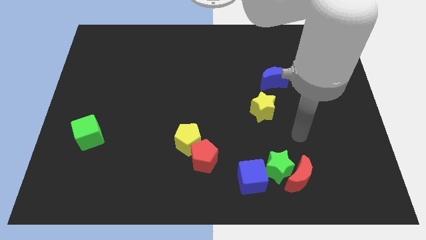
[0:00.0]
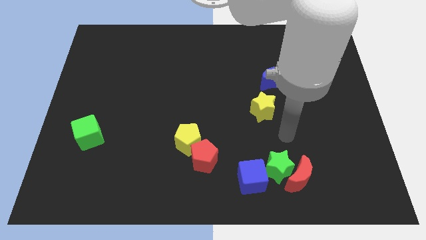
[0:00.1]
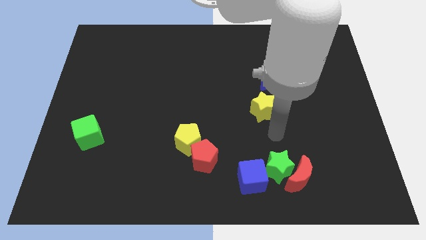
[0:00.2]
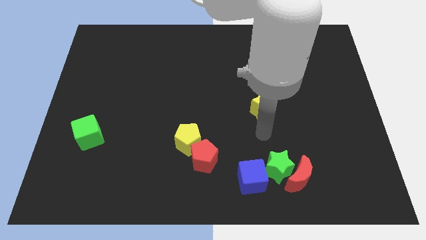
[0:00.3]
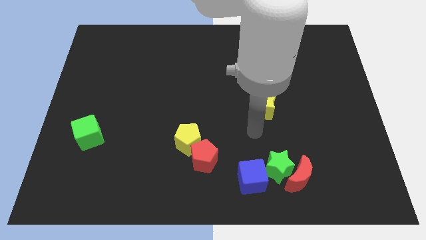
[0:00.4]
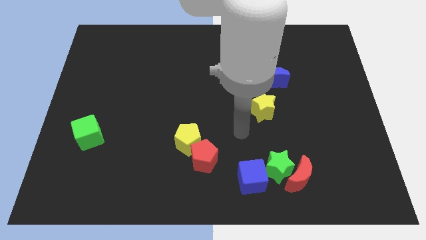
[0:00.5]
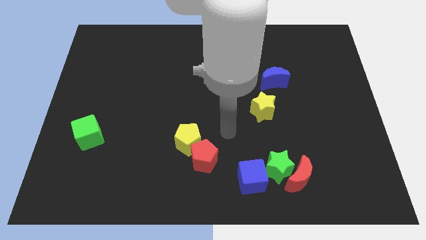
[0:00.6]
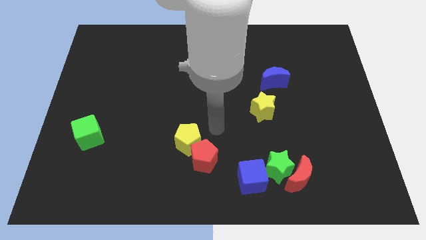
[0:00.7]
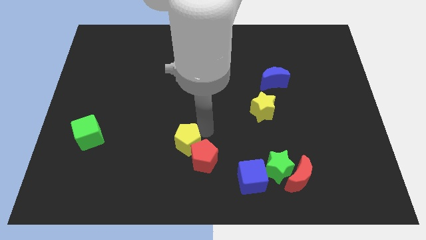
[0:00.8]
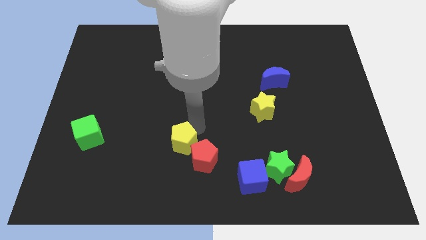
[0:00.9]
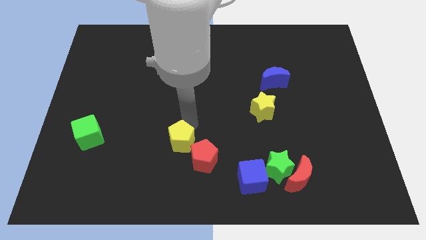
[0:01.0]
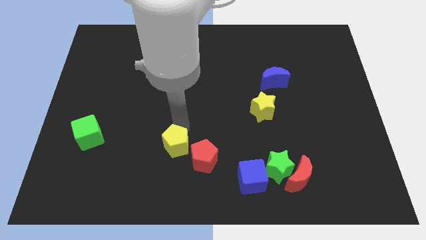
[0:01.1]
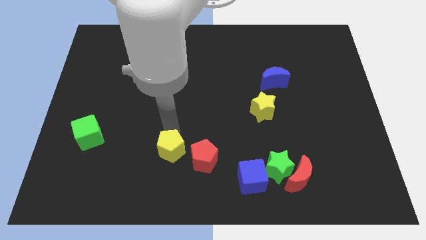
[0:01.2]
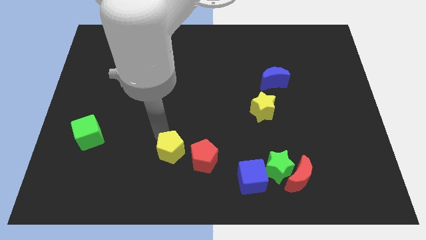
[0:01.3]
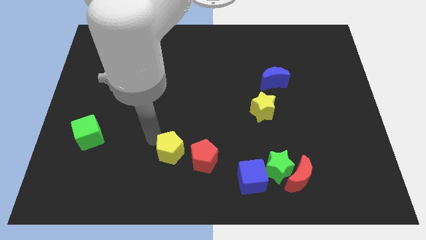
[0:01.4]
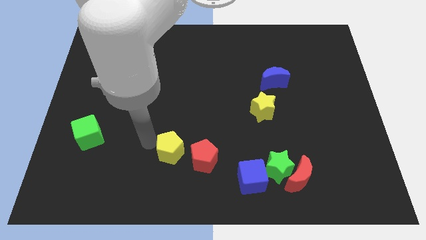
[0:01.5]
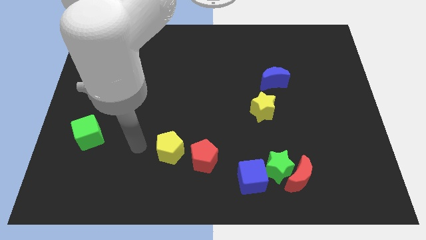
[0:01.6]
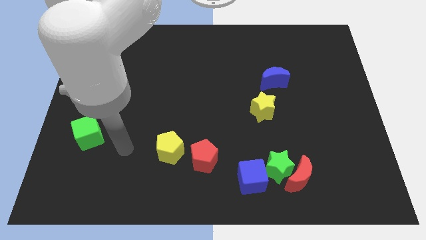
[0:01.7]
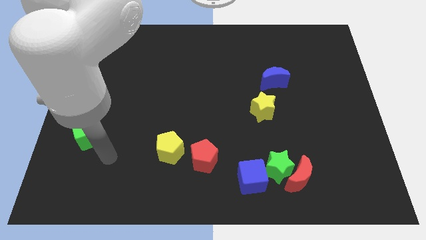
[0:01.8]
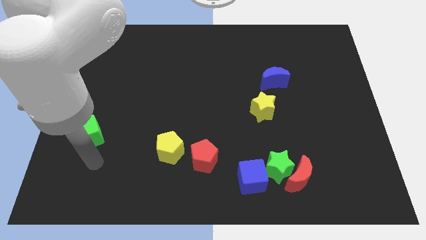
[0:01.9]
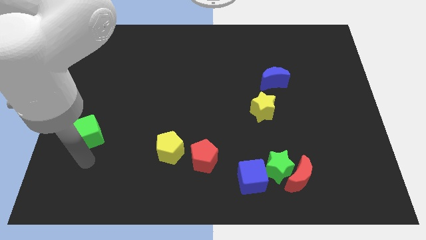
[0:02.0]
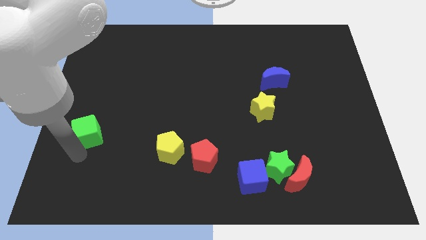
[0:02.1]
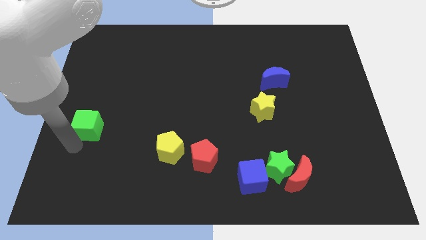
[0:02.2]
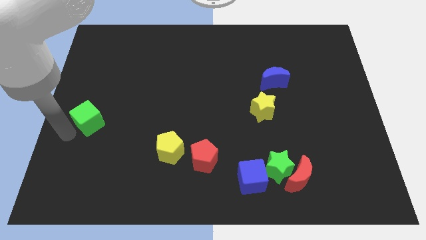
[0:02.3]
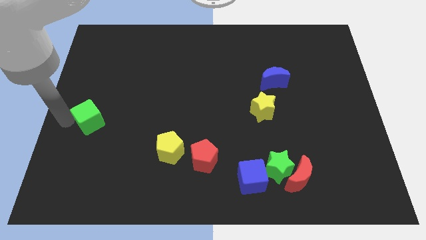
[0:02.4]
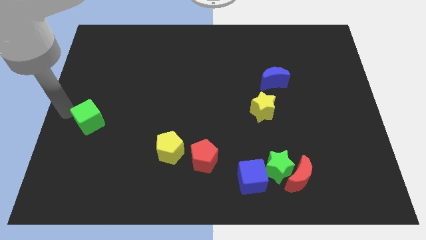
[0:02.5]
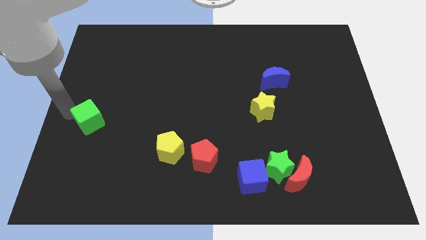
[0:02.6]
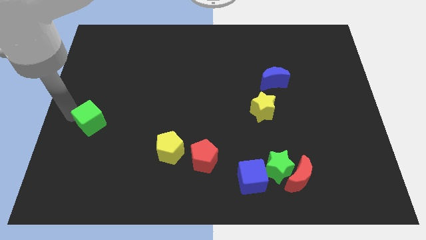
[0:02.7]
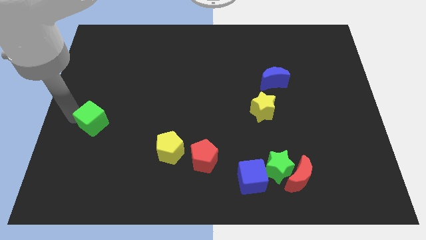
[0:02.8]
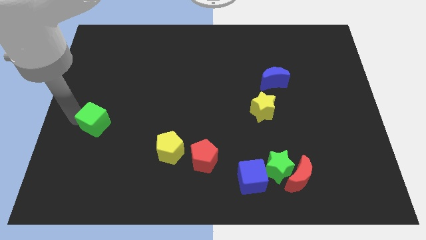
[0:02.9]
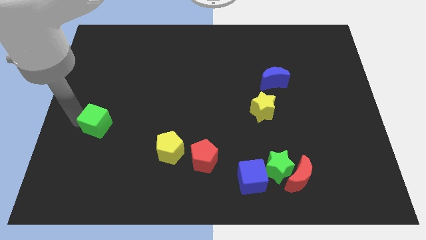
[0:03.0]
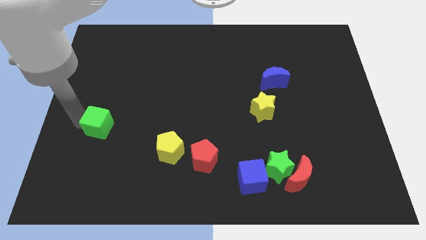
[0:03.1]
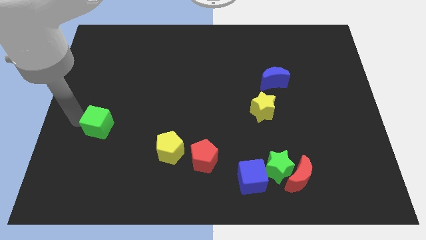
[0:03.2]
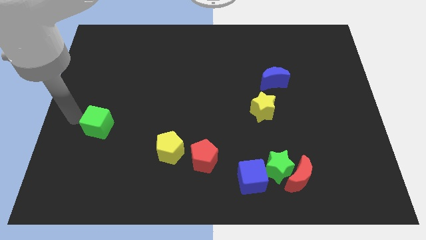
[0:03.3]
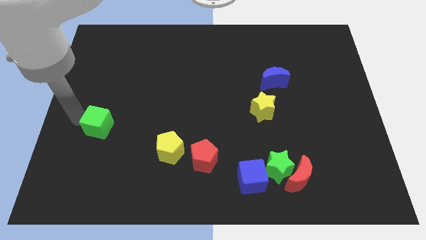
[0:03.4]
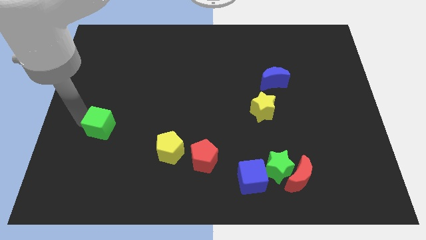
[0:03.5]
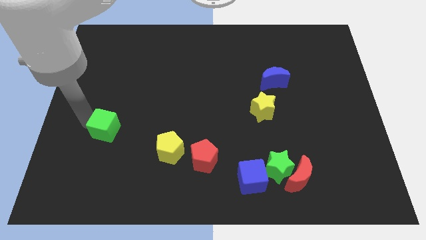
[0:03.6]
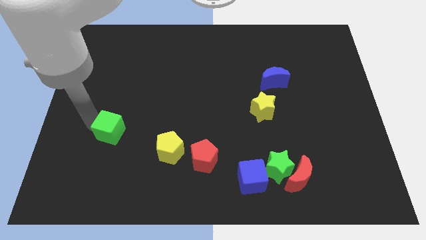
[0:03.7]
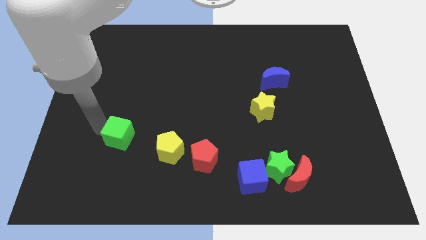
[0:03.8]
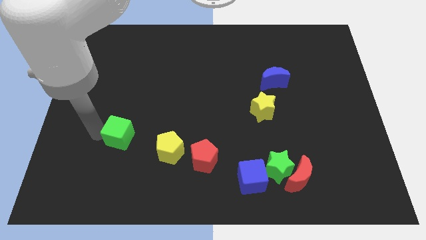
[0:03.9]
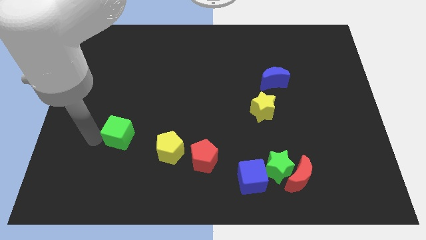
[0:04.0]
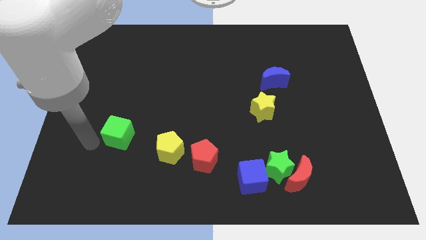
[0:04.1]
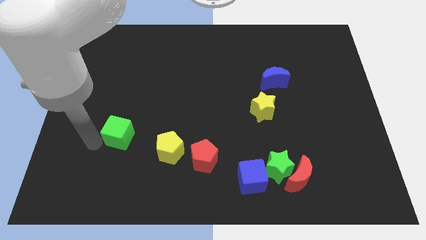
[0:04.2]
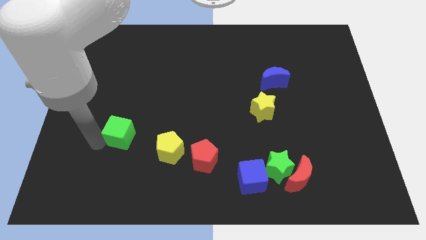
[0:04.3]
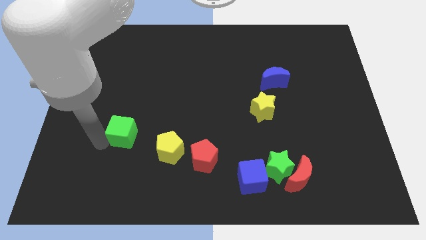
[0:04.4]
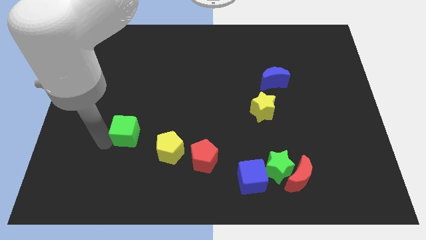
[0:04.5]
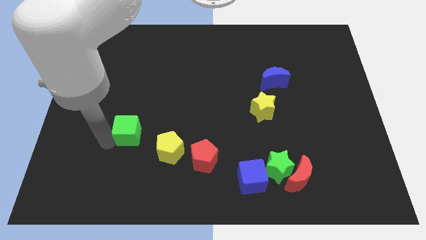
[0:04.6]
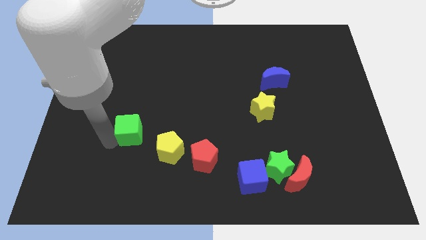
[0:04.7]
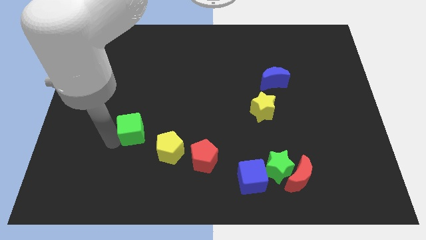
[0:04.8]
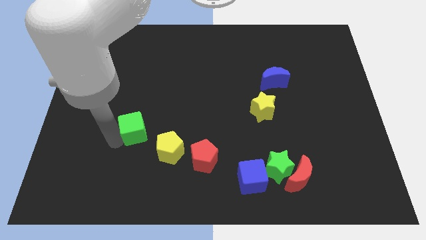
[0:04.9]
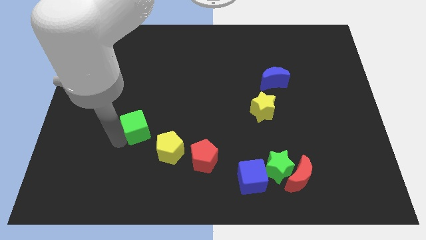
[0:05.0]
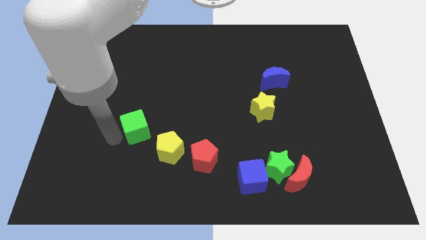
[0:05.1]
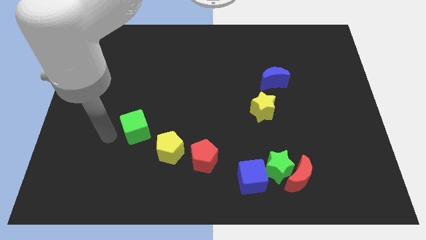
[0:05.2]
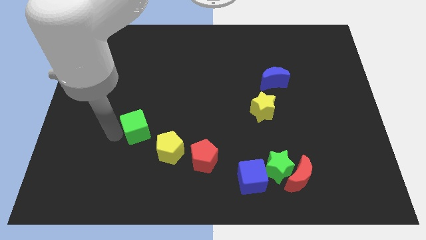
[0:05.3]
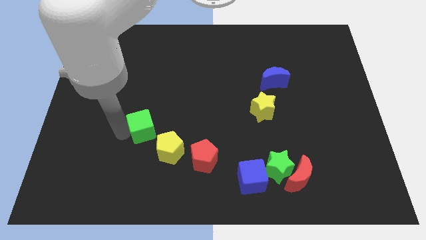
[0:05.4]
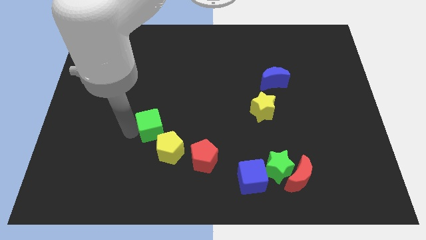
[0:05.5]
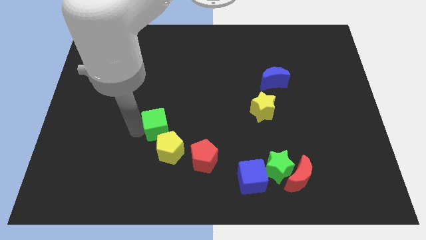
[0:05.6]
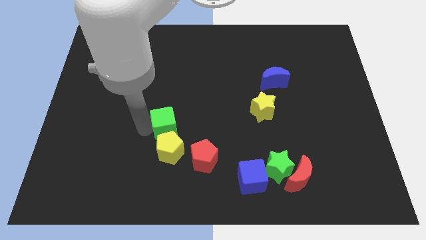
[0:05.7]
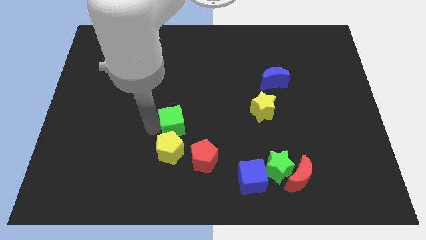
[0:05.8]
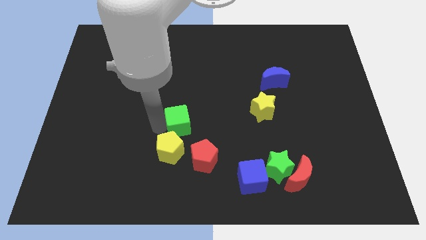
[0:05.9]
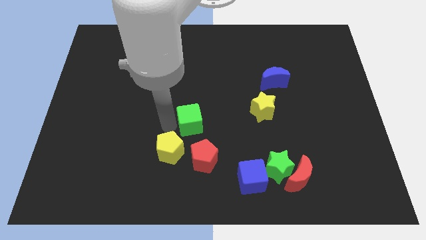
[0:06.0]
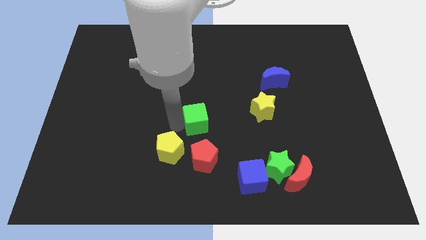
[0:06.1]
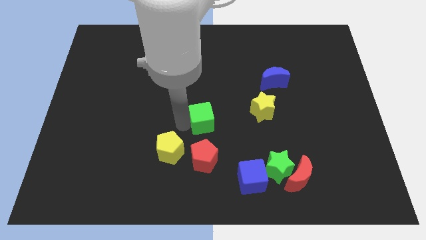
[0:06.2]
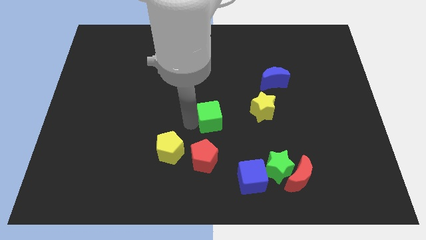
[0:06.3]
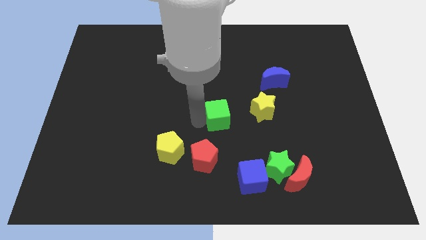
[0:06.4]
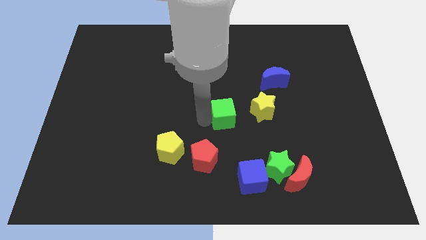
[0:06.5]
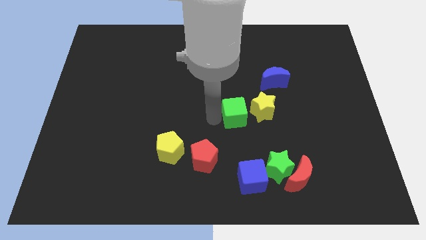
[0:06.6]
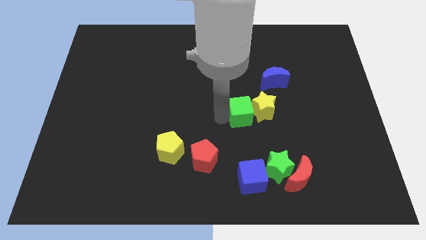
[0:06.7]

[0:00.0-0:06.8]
push the green cube to the yellow star

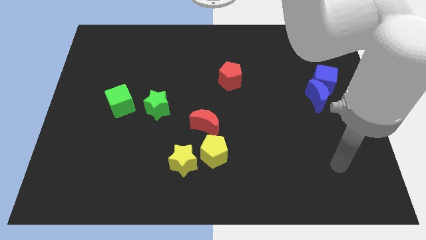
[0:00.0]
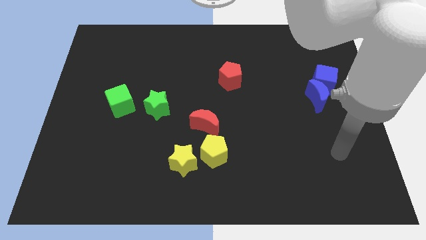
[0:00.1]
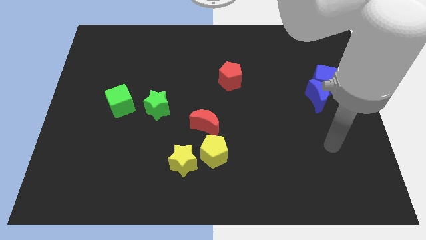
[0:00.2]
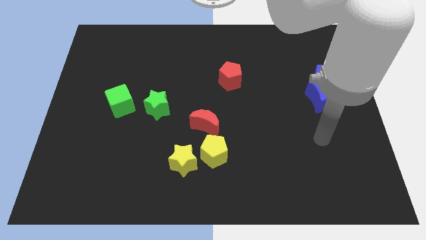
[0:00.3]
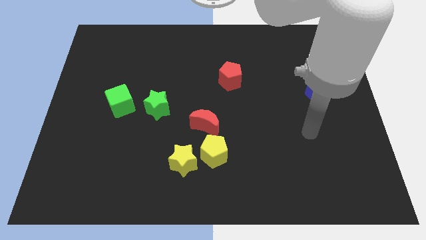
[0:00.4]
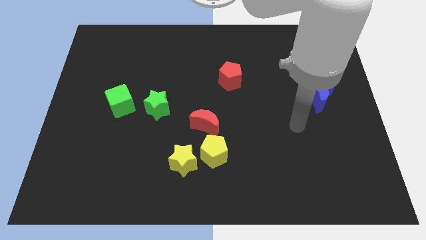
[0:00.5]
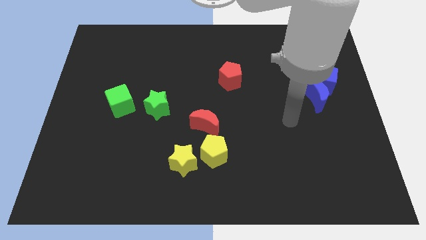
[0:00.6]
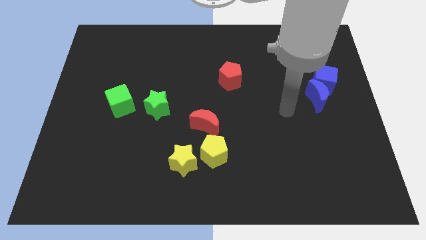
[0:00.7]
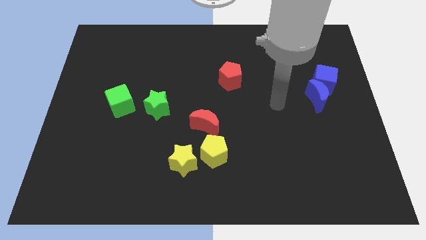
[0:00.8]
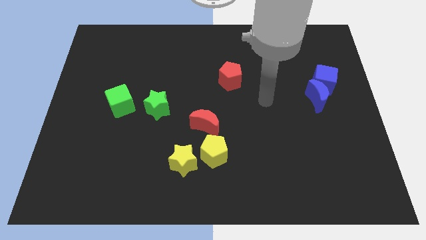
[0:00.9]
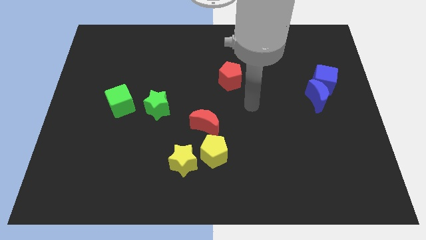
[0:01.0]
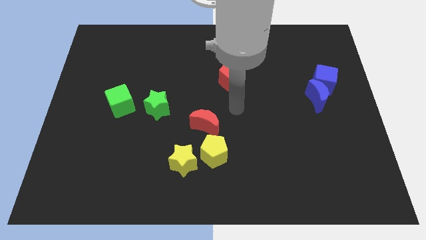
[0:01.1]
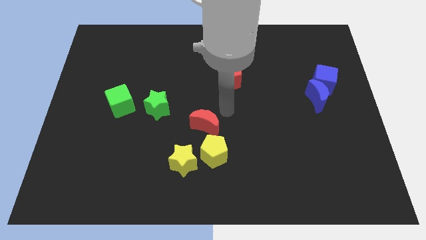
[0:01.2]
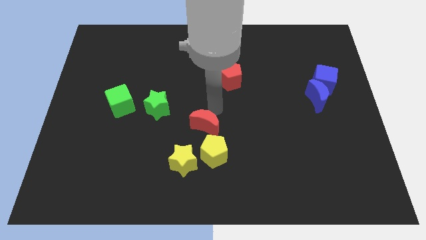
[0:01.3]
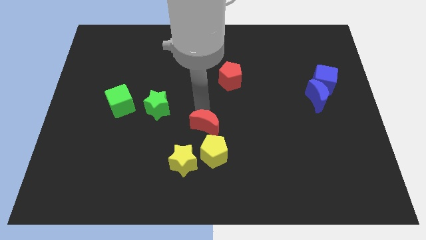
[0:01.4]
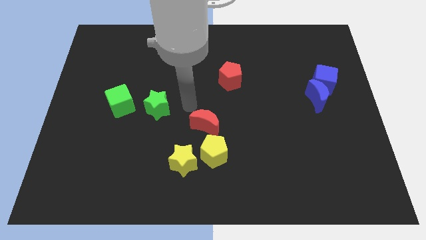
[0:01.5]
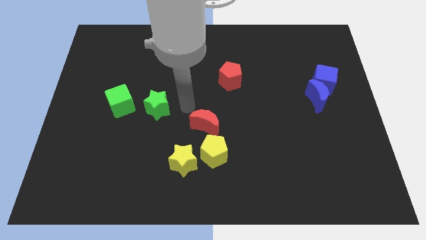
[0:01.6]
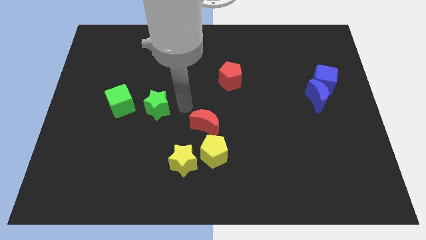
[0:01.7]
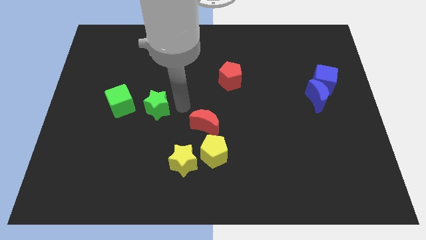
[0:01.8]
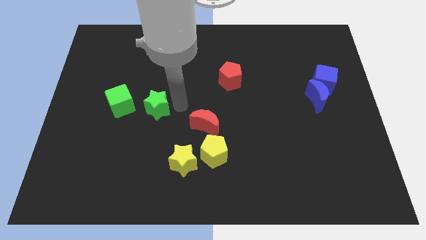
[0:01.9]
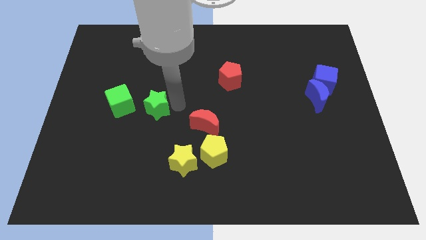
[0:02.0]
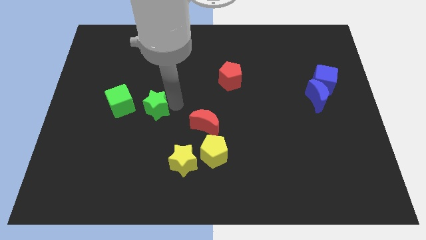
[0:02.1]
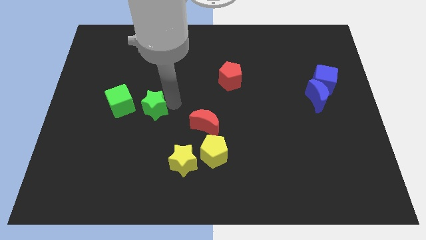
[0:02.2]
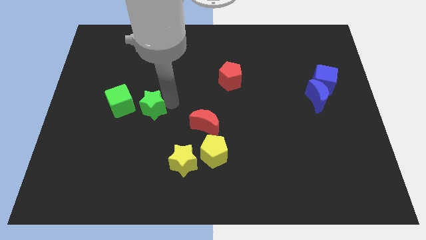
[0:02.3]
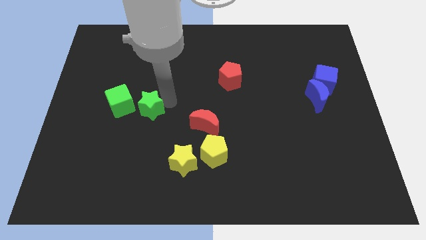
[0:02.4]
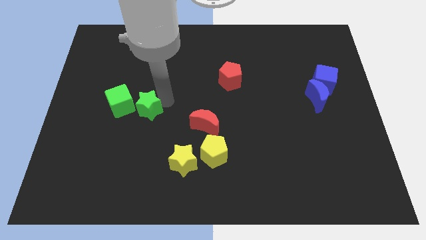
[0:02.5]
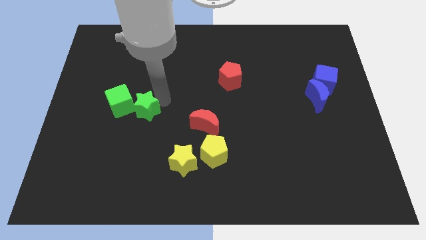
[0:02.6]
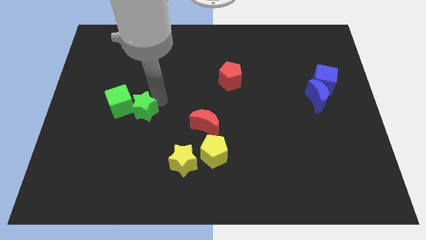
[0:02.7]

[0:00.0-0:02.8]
move the green star to the green cube
